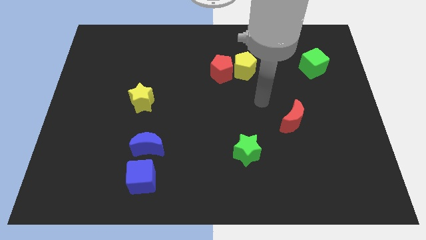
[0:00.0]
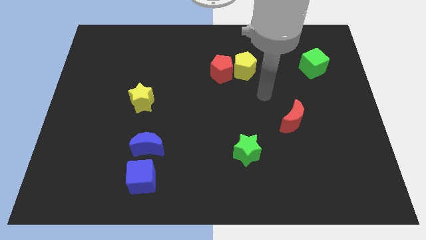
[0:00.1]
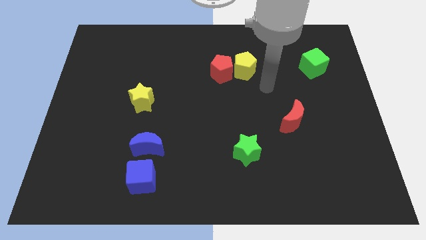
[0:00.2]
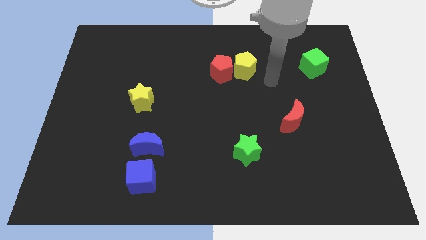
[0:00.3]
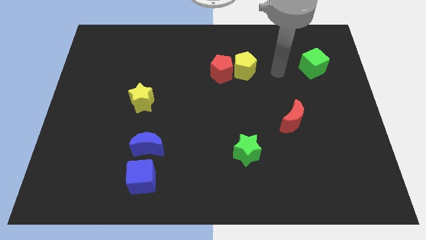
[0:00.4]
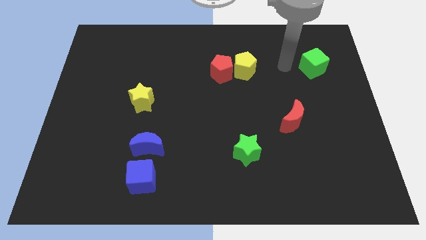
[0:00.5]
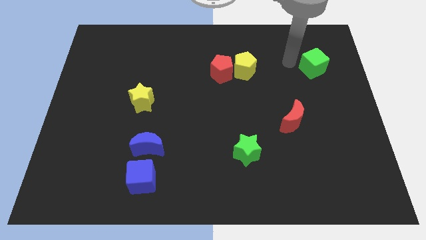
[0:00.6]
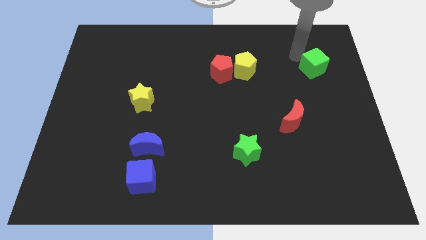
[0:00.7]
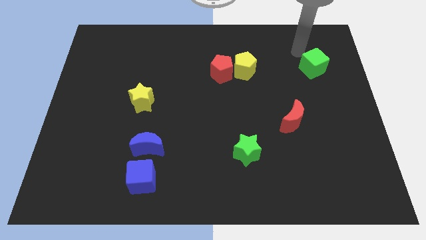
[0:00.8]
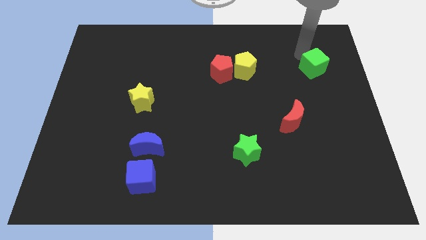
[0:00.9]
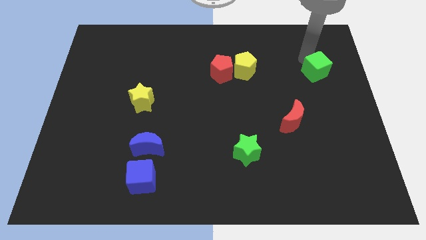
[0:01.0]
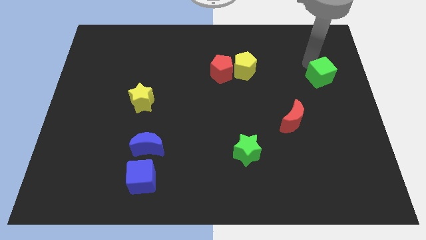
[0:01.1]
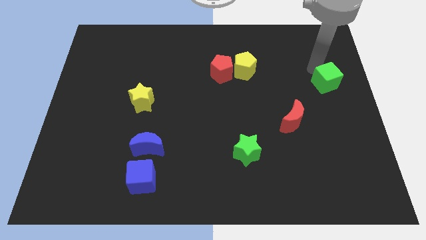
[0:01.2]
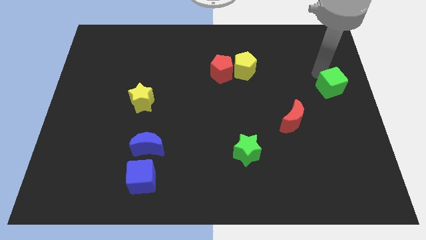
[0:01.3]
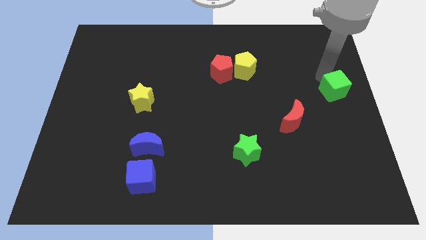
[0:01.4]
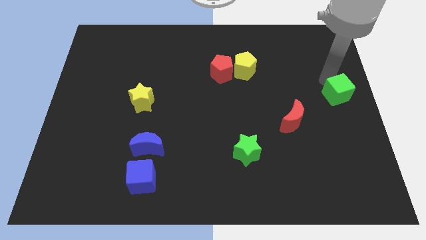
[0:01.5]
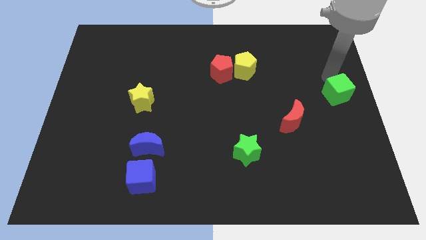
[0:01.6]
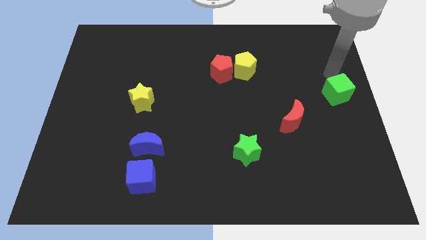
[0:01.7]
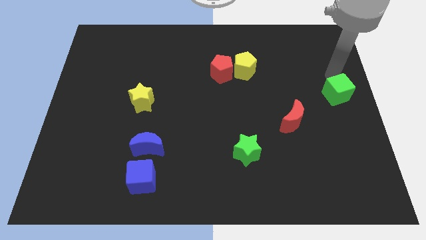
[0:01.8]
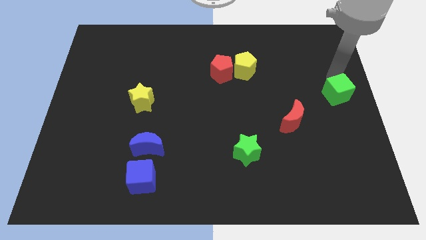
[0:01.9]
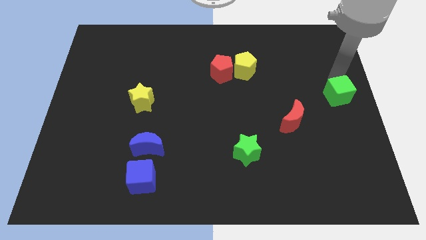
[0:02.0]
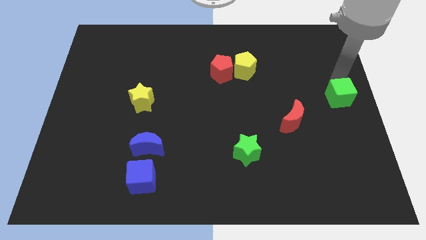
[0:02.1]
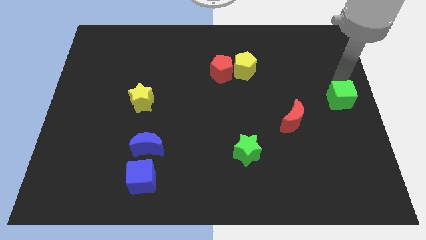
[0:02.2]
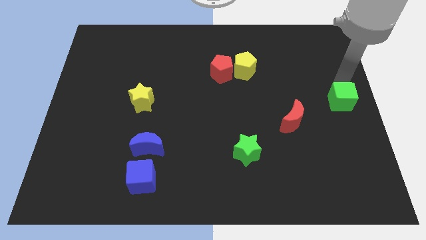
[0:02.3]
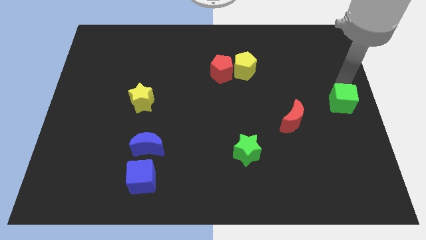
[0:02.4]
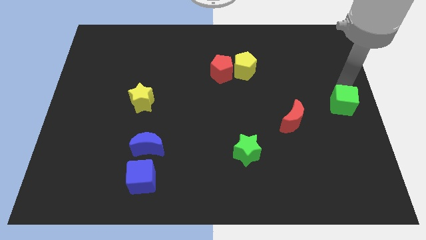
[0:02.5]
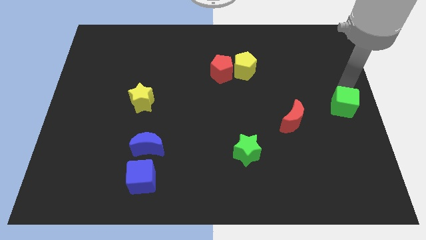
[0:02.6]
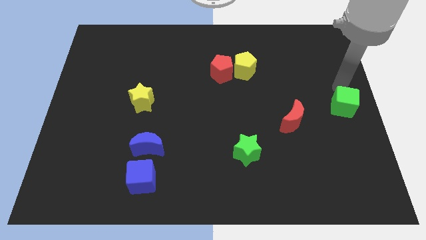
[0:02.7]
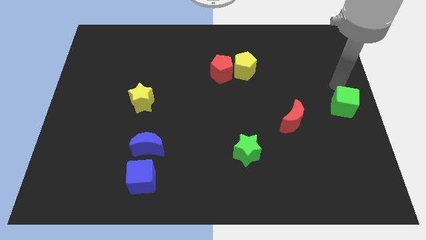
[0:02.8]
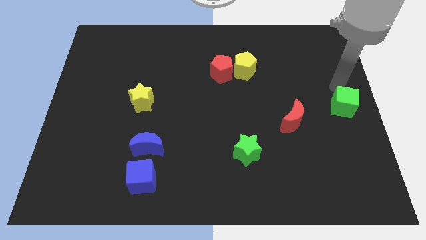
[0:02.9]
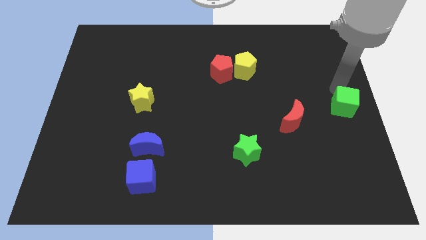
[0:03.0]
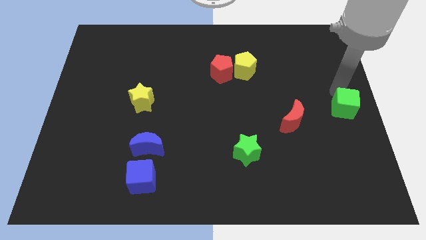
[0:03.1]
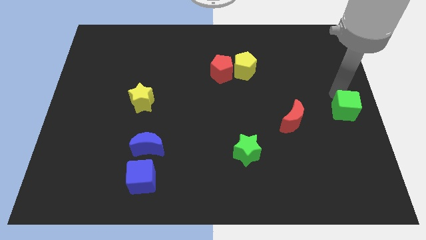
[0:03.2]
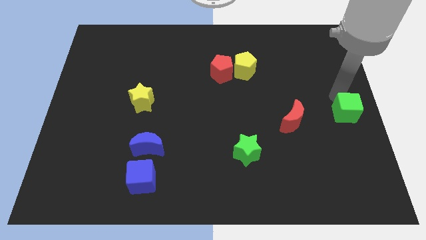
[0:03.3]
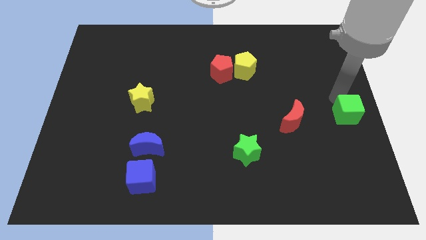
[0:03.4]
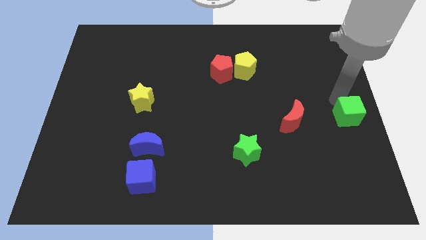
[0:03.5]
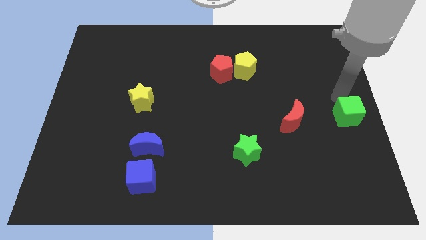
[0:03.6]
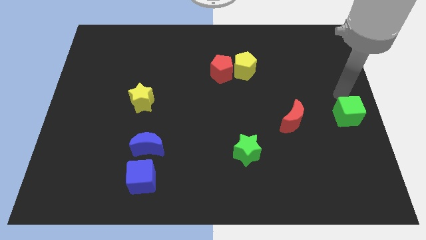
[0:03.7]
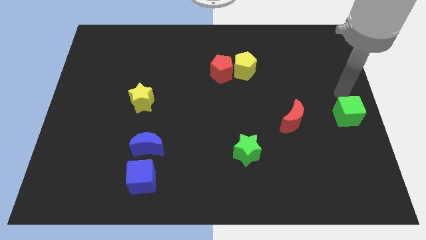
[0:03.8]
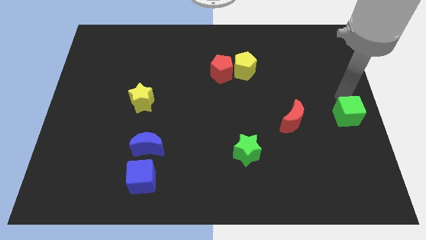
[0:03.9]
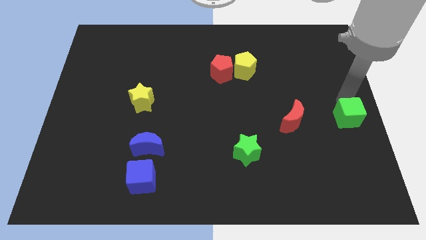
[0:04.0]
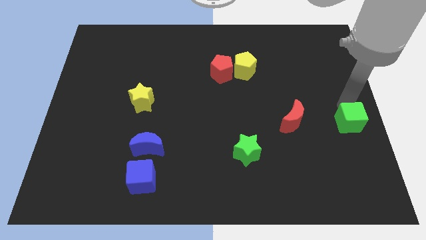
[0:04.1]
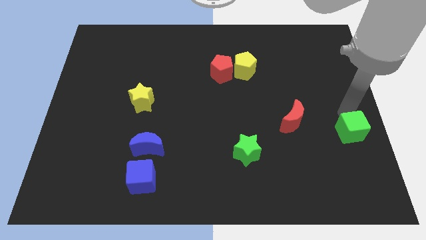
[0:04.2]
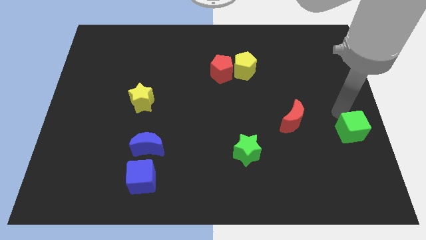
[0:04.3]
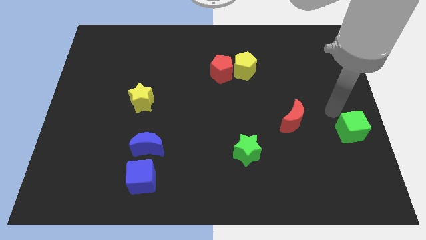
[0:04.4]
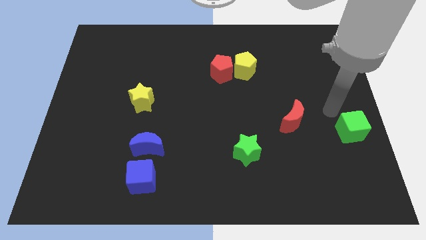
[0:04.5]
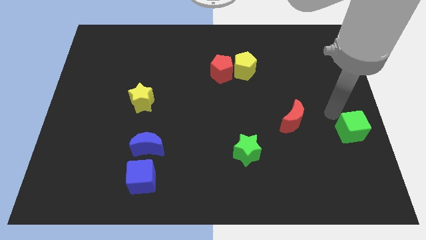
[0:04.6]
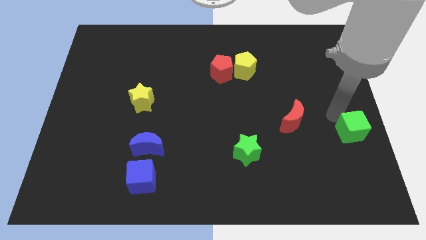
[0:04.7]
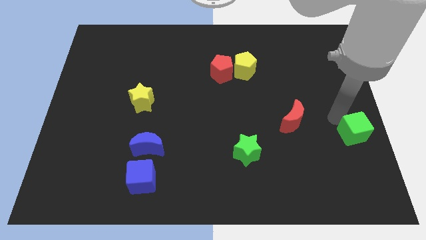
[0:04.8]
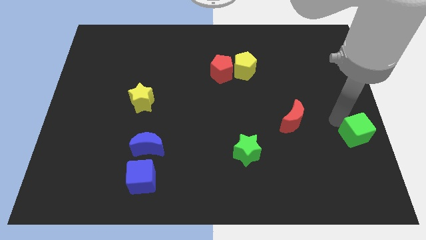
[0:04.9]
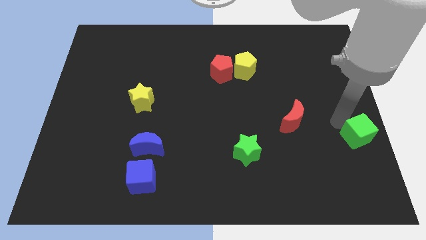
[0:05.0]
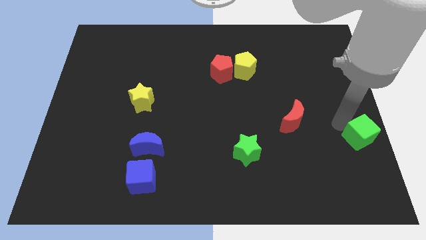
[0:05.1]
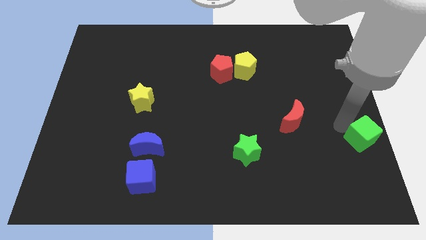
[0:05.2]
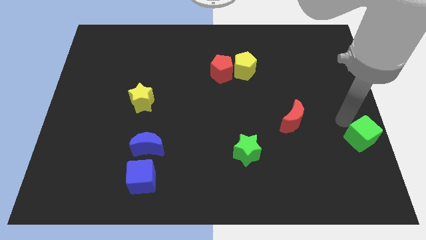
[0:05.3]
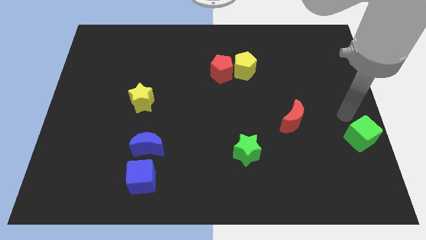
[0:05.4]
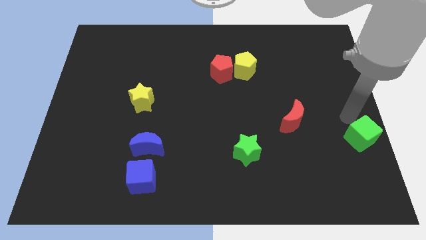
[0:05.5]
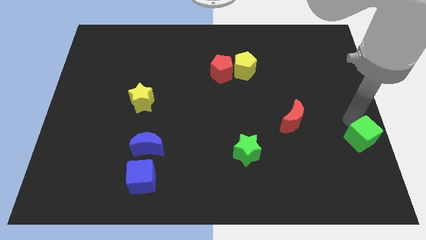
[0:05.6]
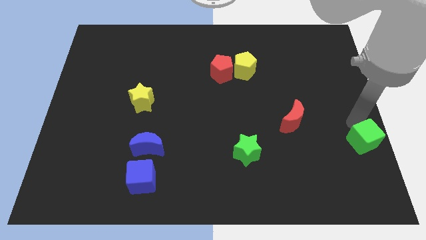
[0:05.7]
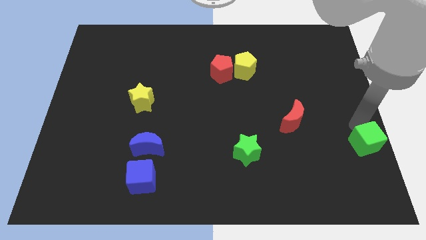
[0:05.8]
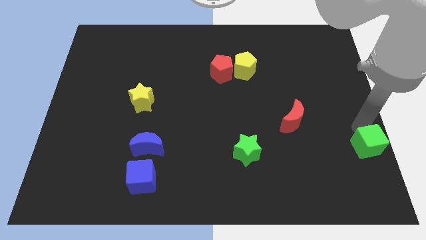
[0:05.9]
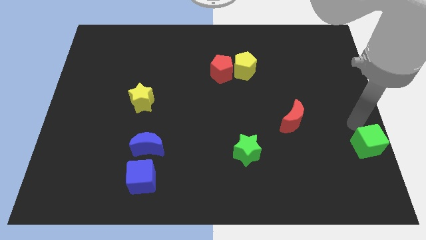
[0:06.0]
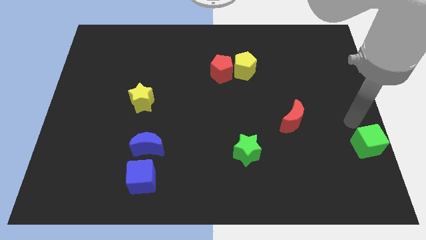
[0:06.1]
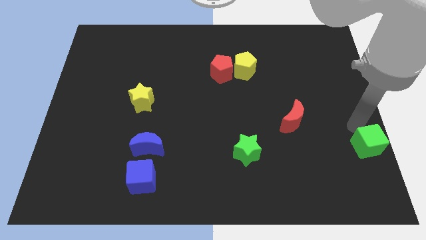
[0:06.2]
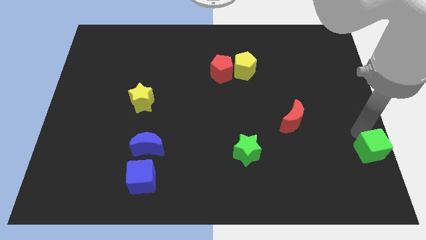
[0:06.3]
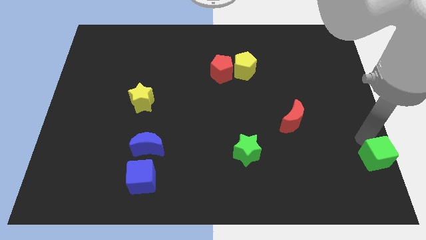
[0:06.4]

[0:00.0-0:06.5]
push the green cube to the bottom right corner

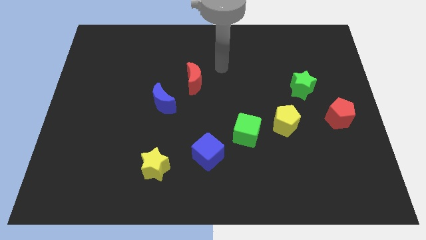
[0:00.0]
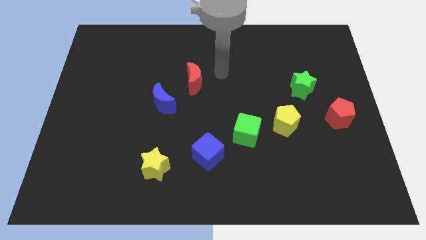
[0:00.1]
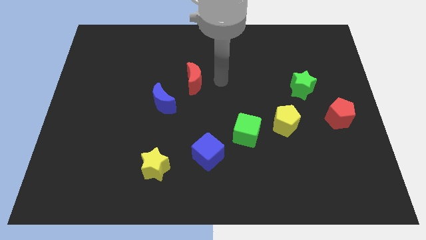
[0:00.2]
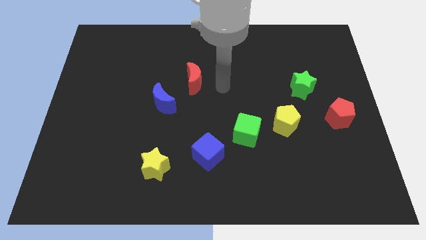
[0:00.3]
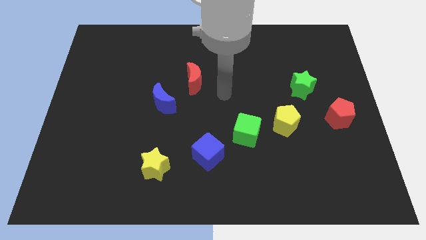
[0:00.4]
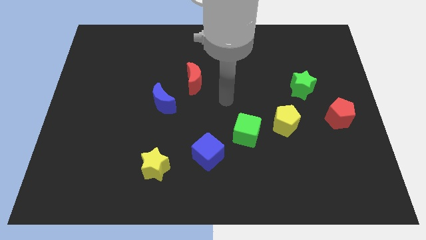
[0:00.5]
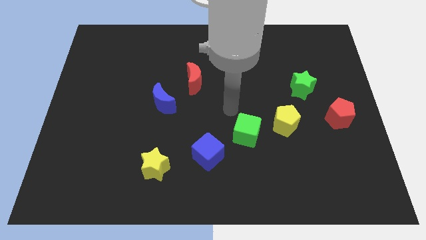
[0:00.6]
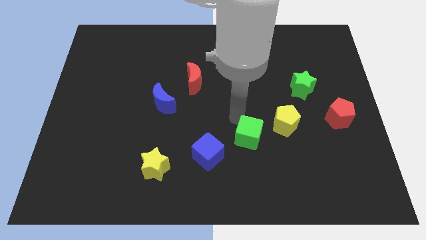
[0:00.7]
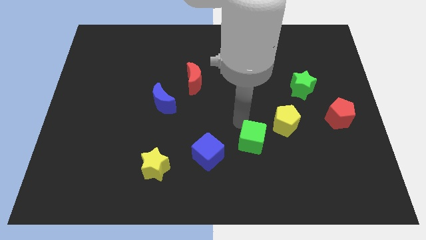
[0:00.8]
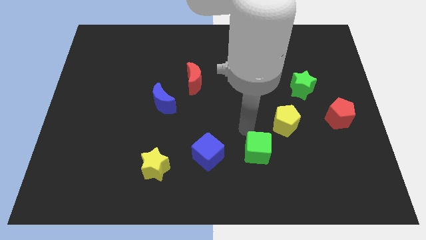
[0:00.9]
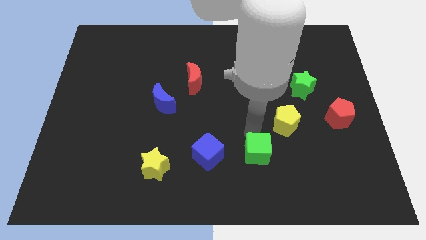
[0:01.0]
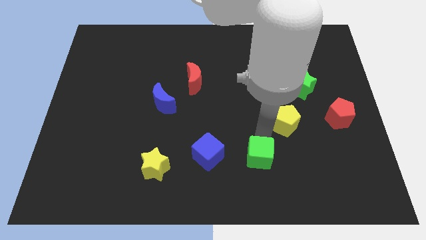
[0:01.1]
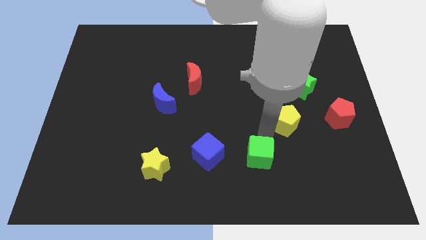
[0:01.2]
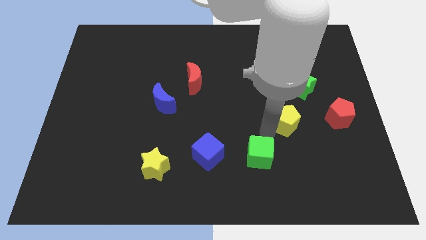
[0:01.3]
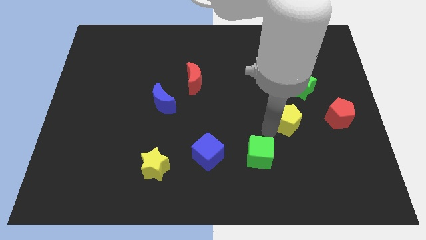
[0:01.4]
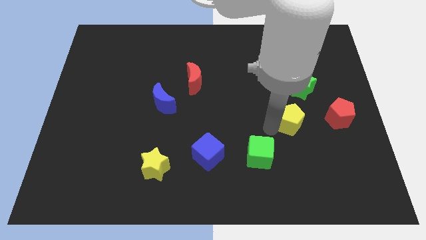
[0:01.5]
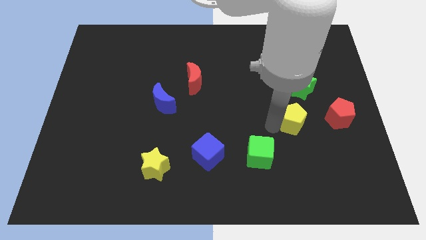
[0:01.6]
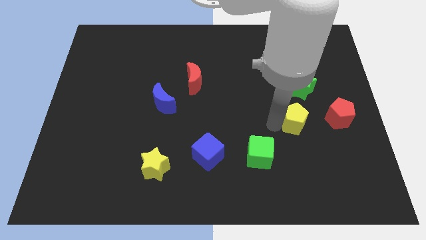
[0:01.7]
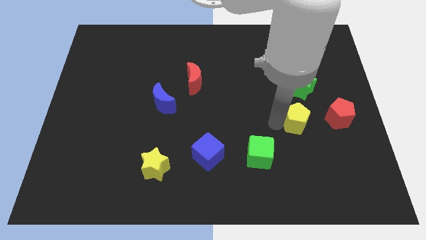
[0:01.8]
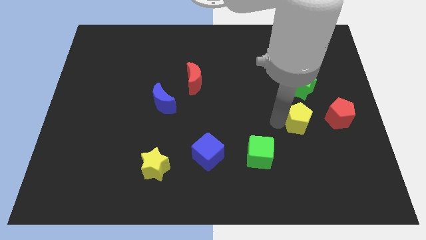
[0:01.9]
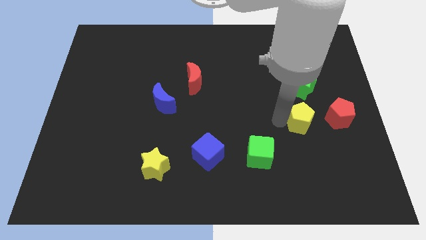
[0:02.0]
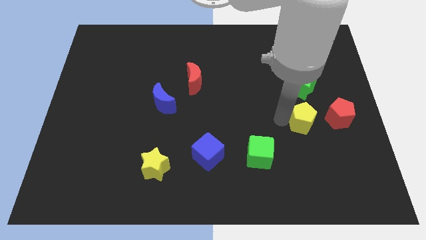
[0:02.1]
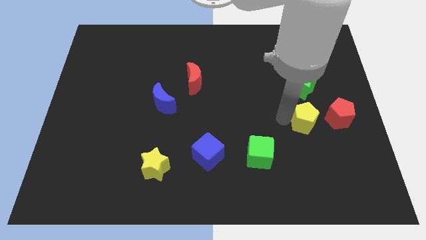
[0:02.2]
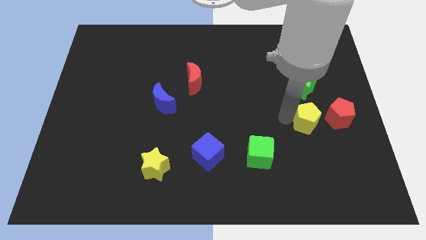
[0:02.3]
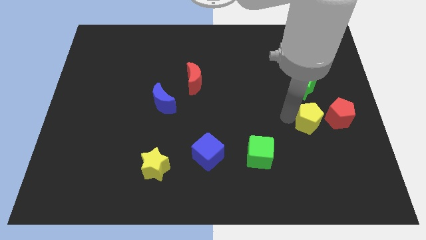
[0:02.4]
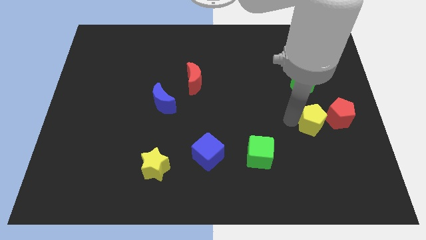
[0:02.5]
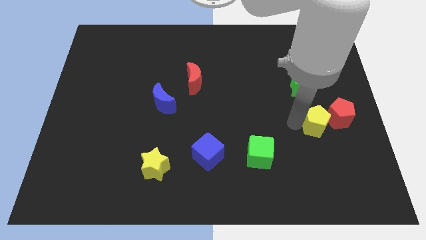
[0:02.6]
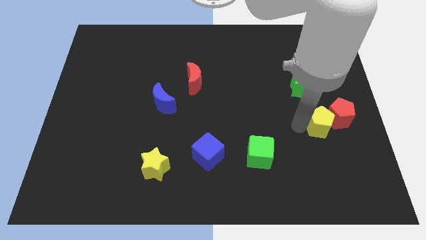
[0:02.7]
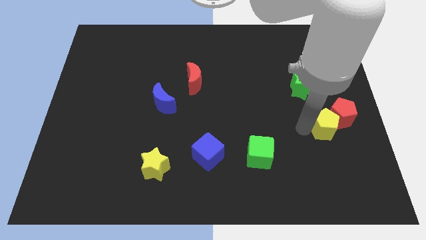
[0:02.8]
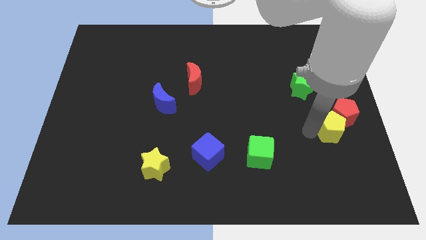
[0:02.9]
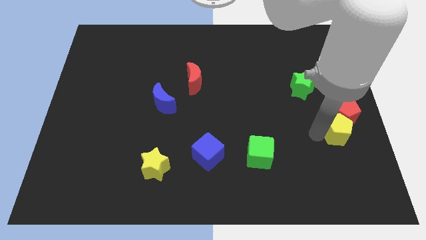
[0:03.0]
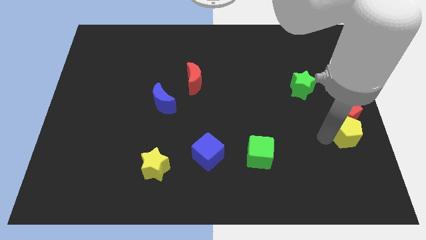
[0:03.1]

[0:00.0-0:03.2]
slide the yellow pentagon to the right side
